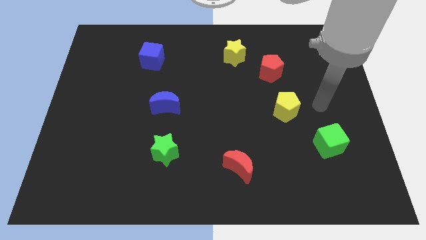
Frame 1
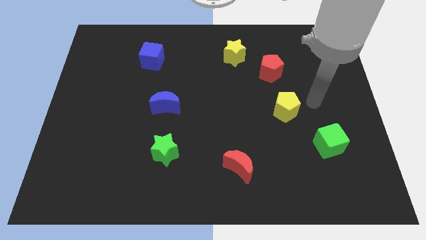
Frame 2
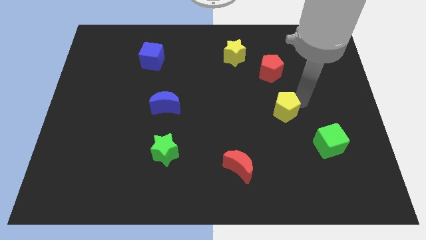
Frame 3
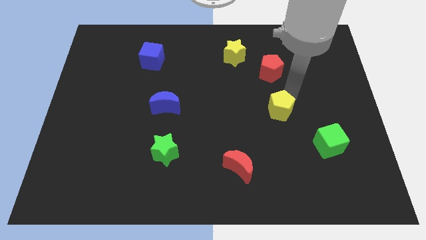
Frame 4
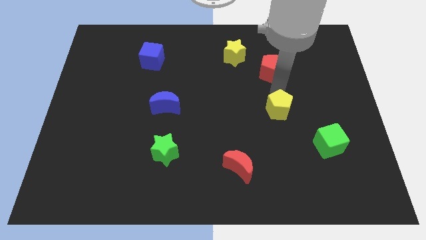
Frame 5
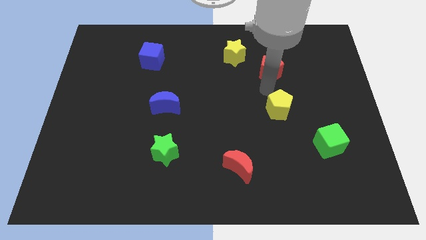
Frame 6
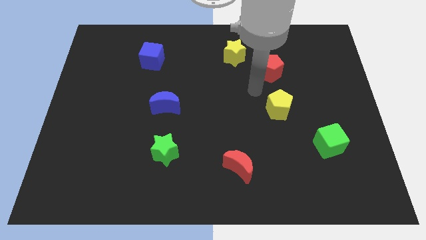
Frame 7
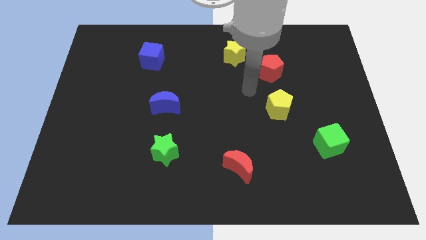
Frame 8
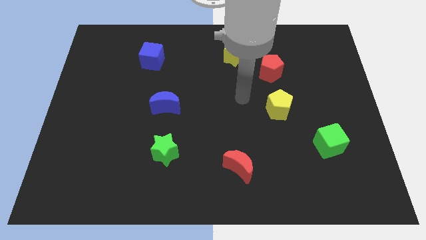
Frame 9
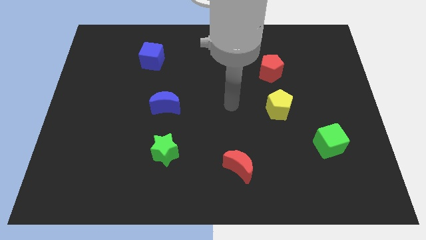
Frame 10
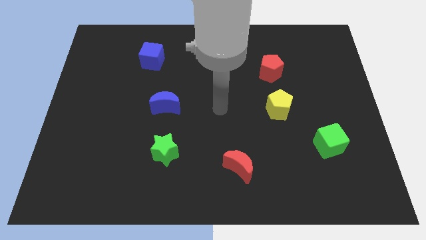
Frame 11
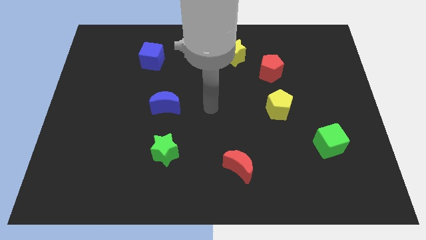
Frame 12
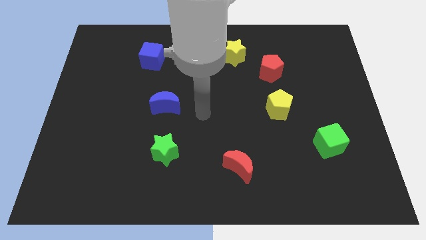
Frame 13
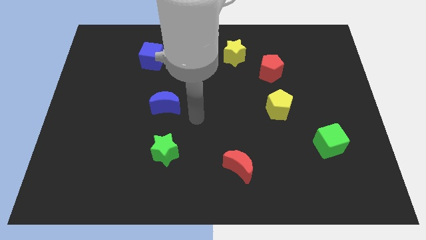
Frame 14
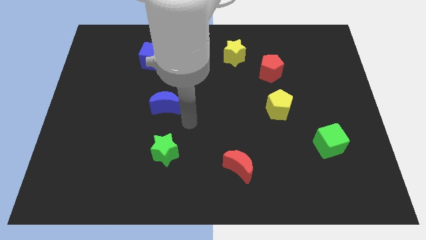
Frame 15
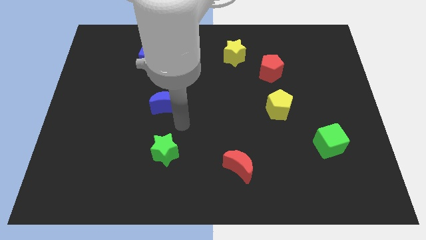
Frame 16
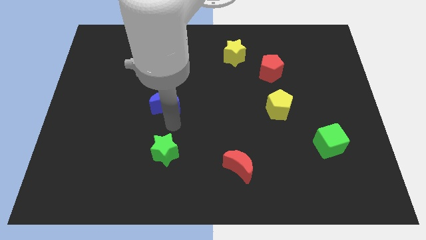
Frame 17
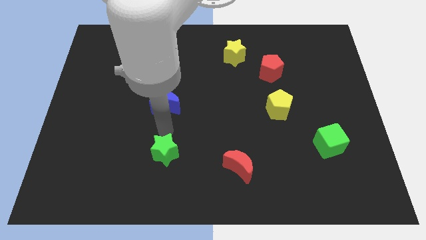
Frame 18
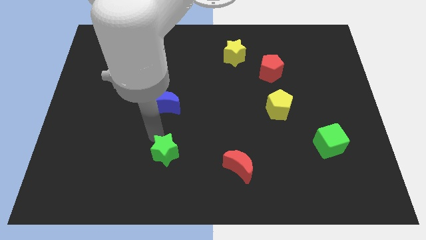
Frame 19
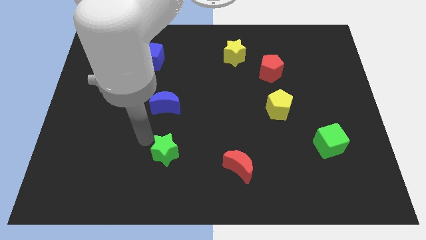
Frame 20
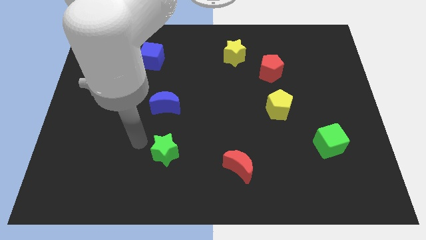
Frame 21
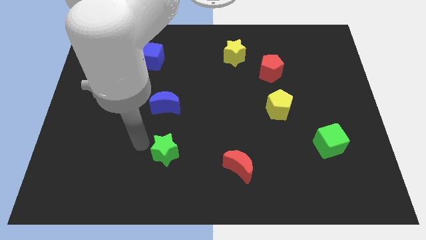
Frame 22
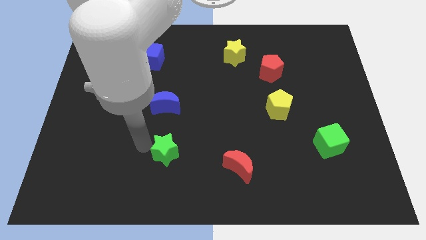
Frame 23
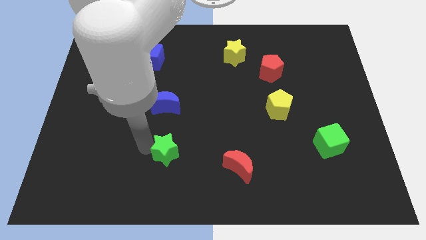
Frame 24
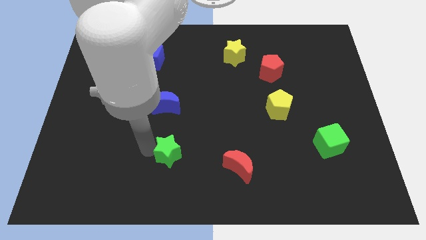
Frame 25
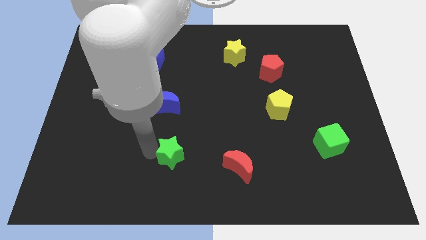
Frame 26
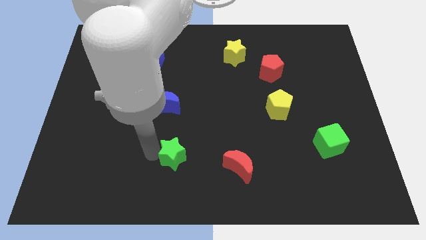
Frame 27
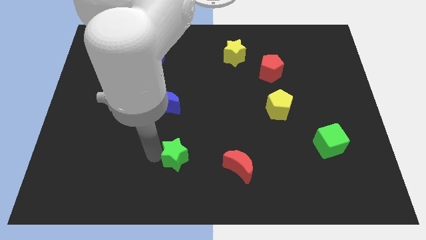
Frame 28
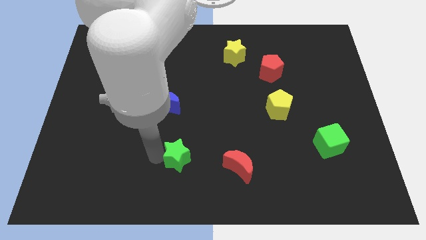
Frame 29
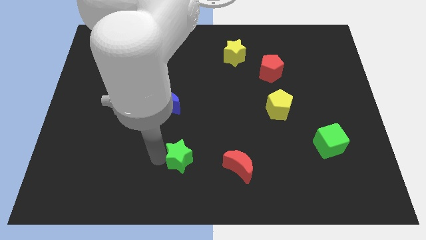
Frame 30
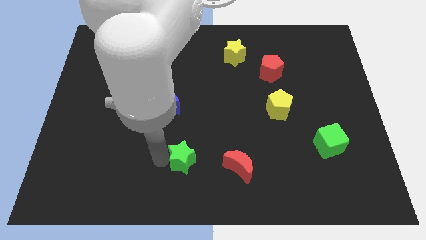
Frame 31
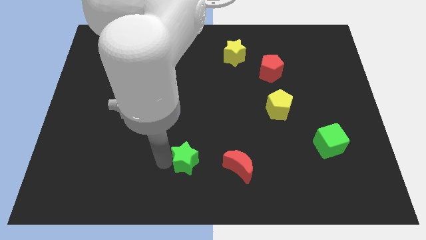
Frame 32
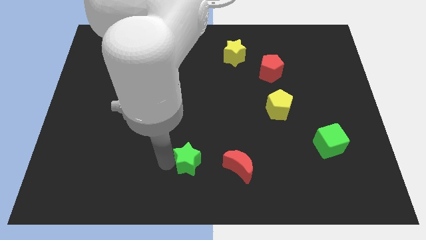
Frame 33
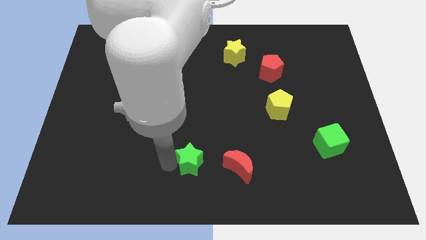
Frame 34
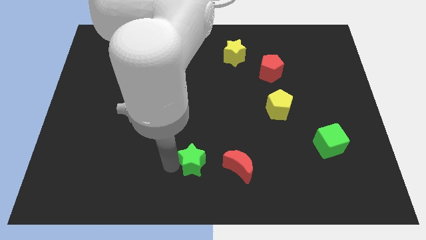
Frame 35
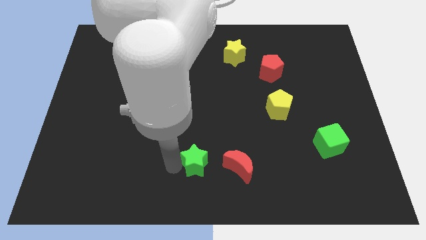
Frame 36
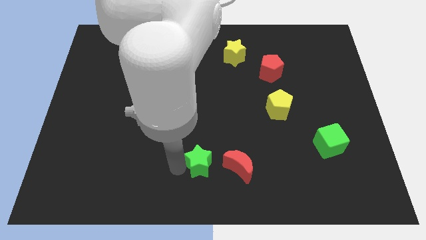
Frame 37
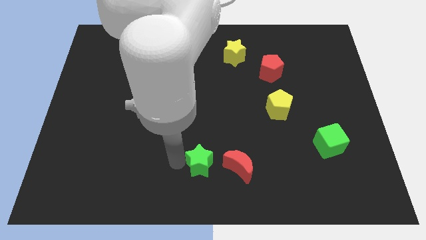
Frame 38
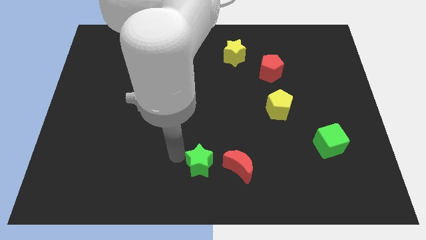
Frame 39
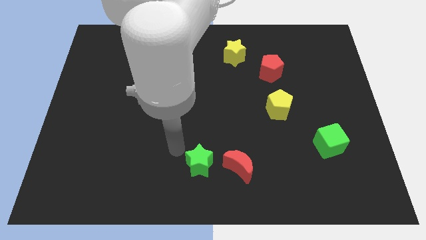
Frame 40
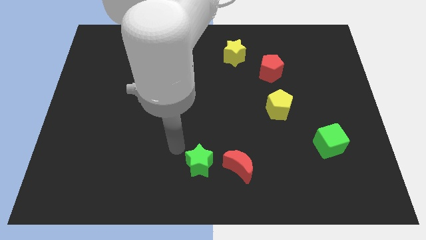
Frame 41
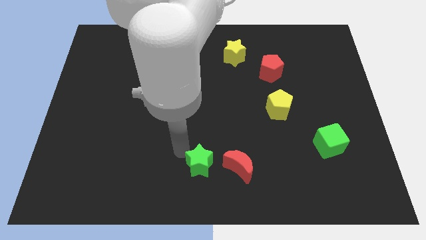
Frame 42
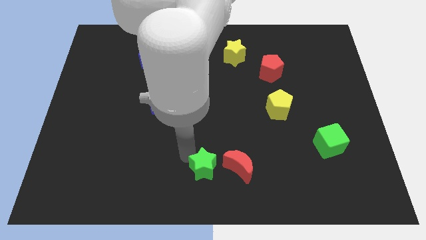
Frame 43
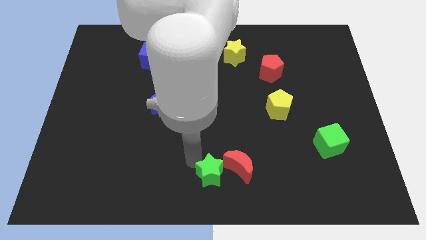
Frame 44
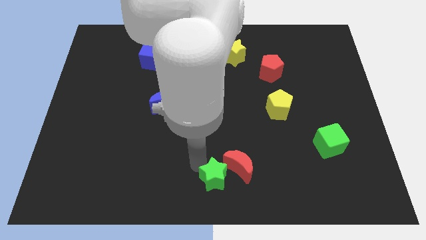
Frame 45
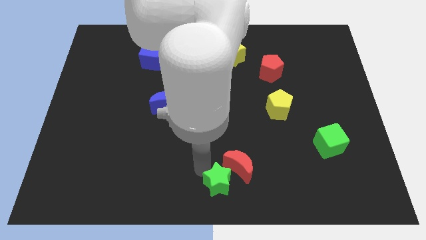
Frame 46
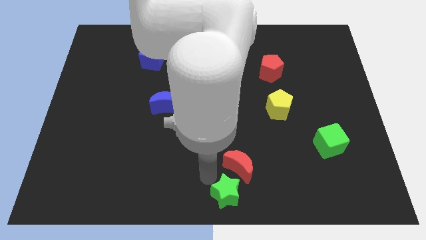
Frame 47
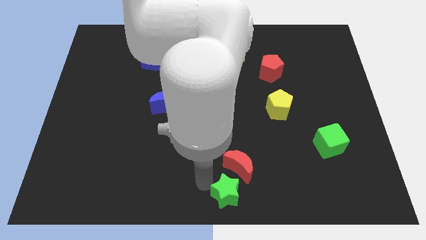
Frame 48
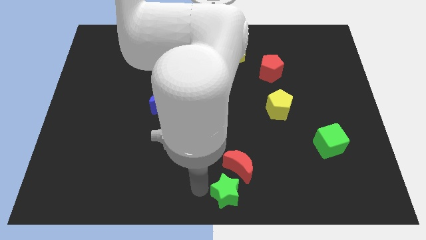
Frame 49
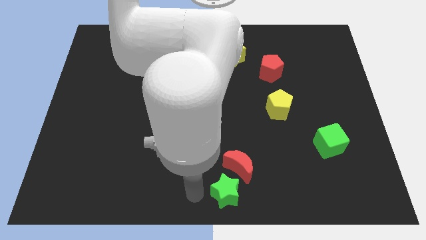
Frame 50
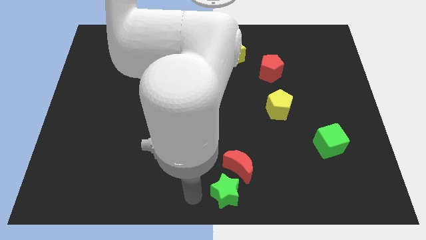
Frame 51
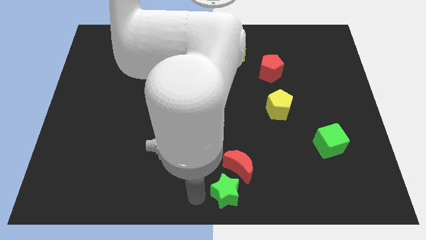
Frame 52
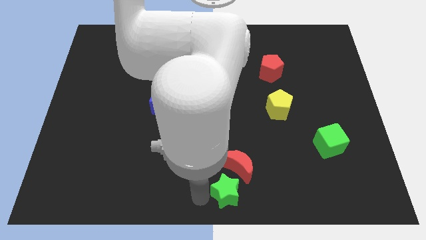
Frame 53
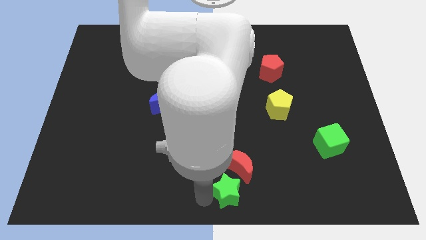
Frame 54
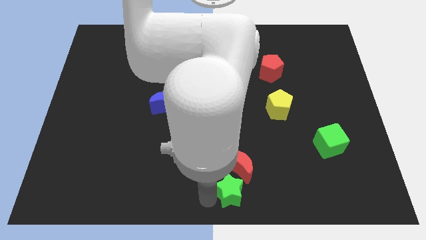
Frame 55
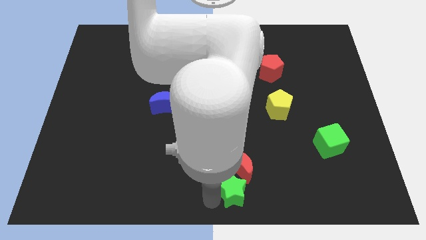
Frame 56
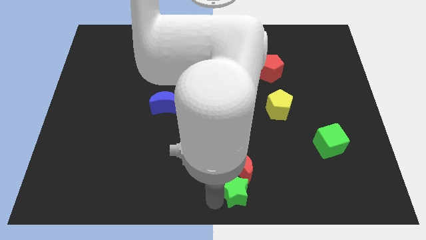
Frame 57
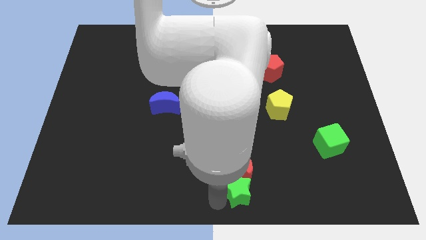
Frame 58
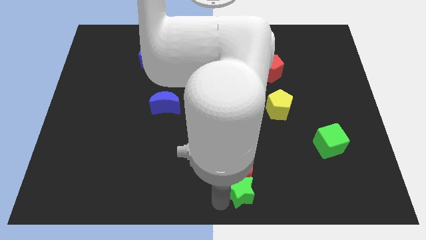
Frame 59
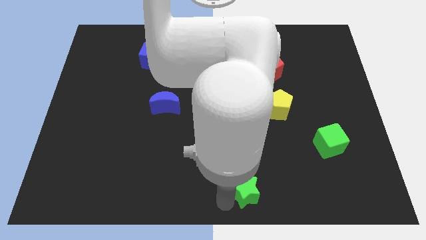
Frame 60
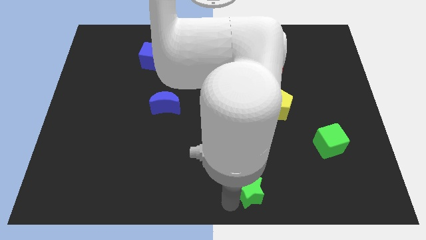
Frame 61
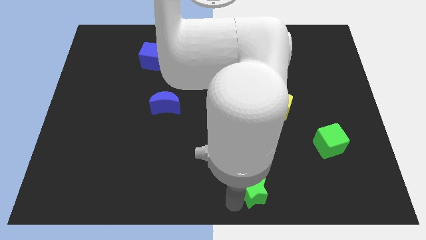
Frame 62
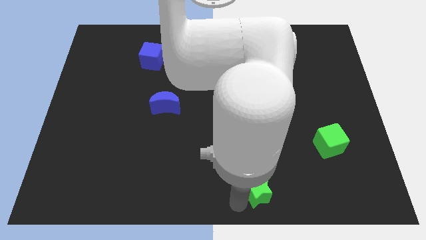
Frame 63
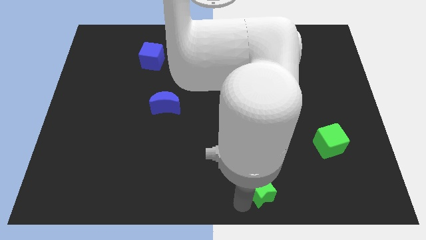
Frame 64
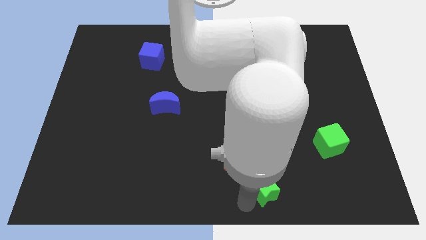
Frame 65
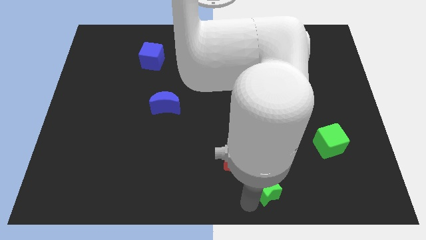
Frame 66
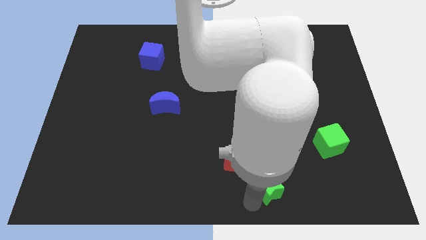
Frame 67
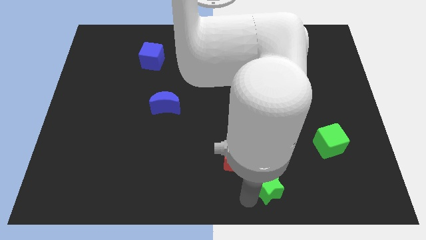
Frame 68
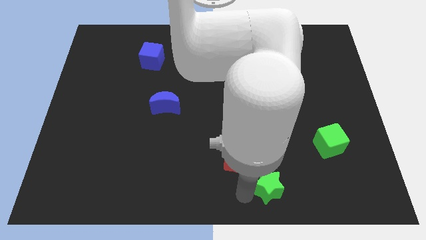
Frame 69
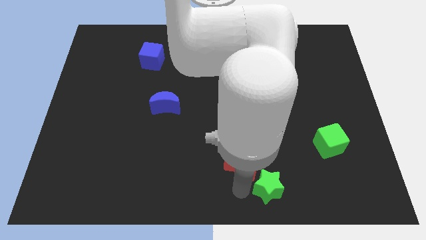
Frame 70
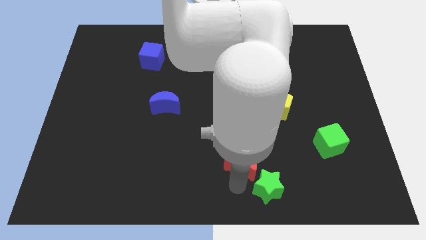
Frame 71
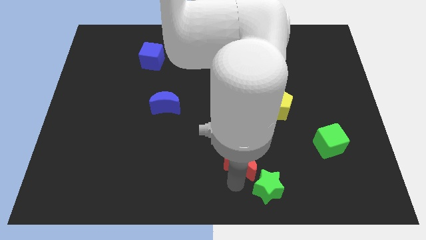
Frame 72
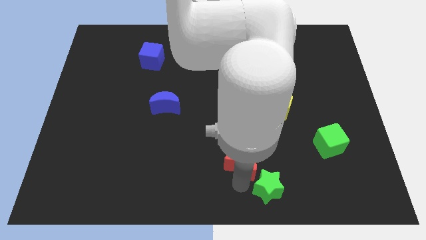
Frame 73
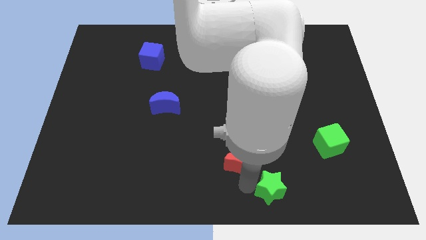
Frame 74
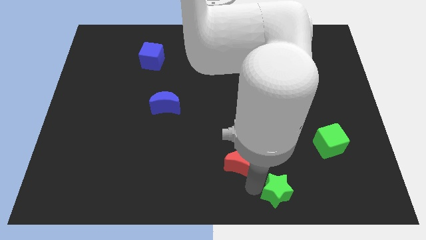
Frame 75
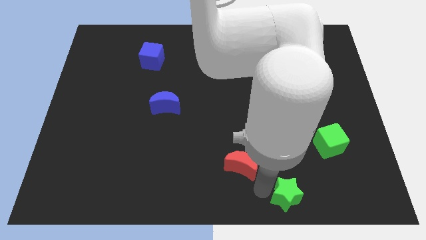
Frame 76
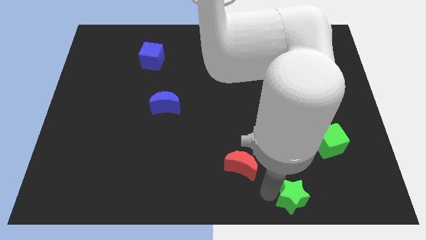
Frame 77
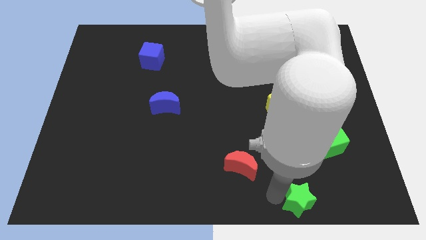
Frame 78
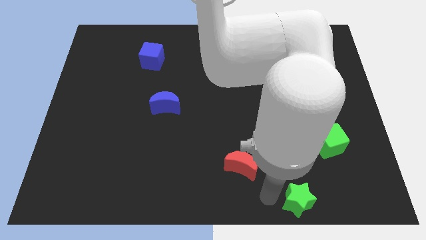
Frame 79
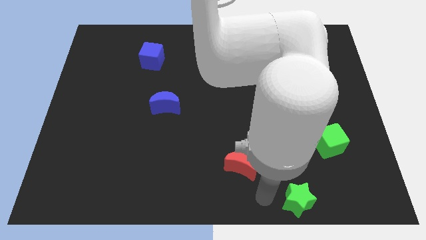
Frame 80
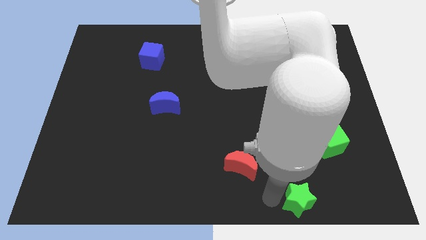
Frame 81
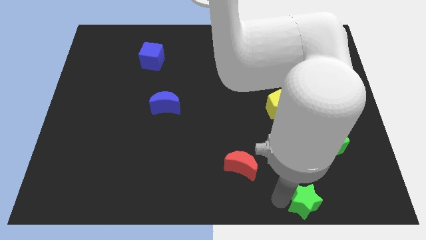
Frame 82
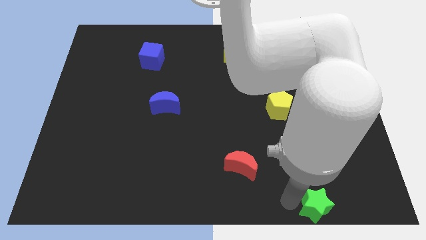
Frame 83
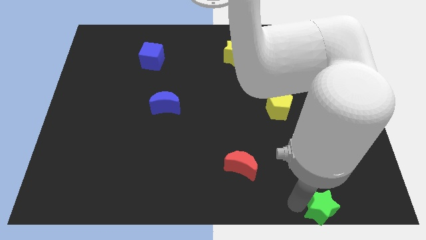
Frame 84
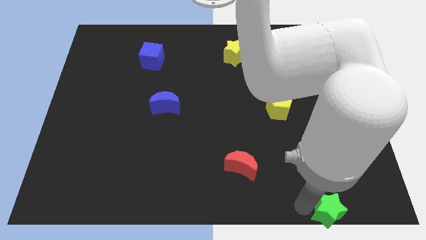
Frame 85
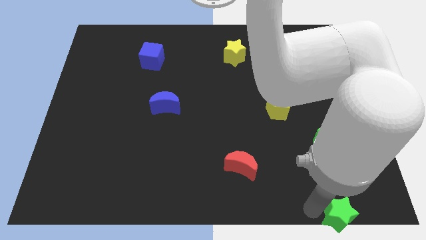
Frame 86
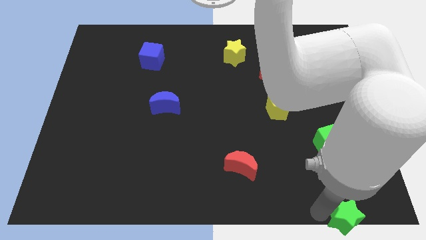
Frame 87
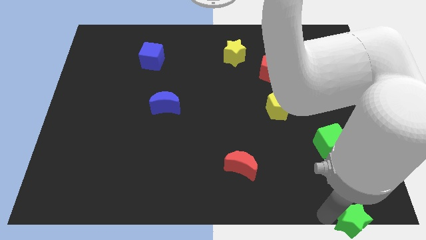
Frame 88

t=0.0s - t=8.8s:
move the green star to the bottom right of the board
